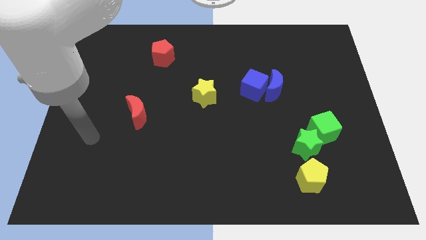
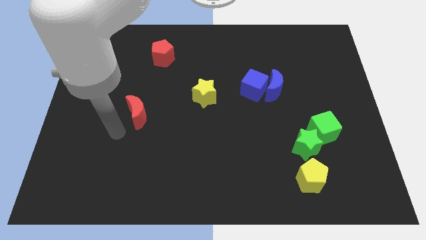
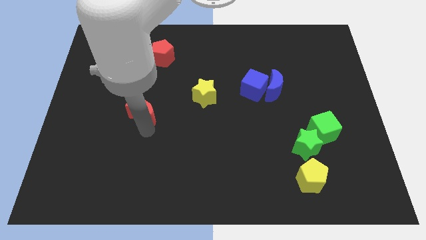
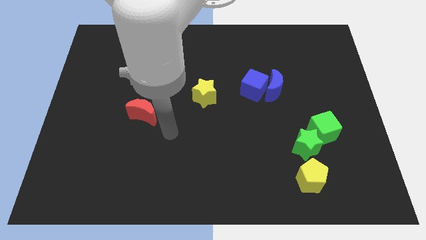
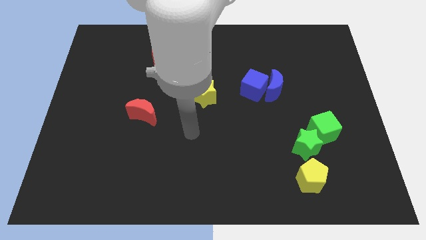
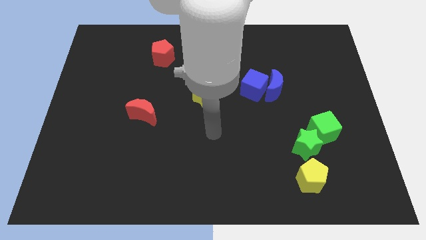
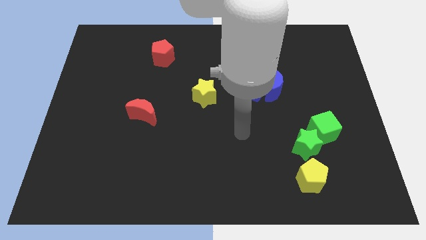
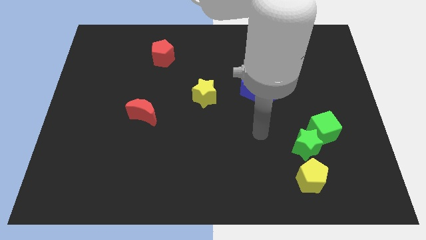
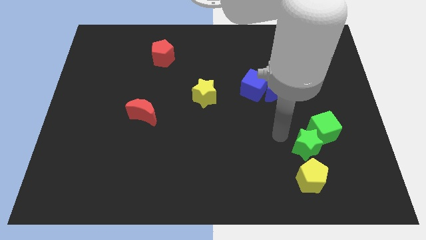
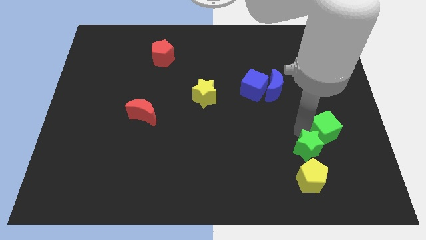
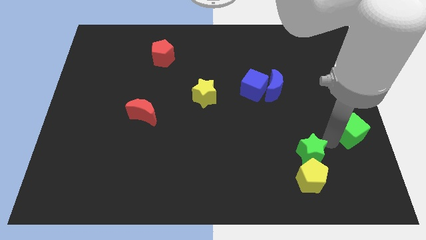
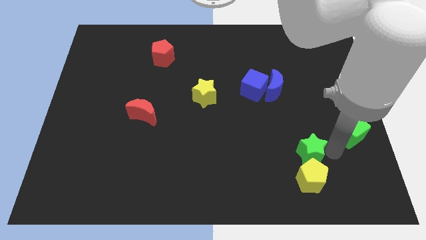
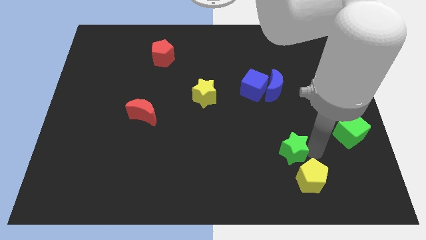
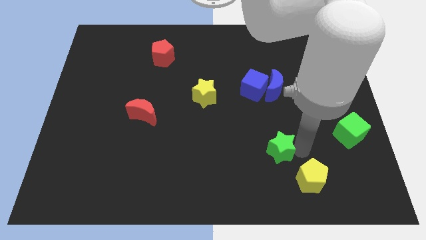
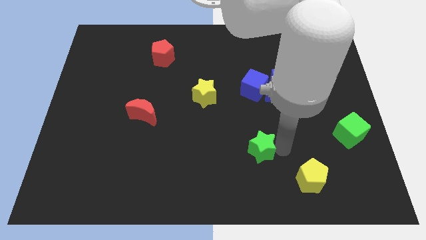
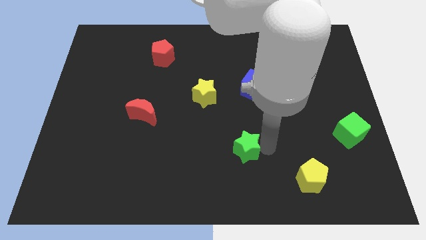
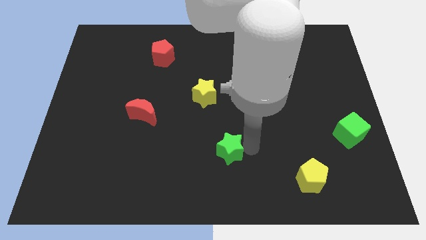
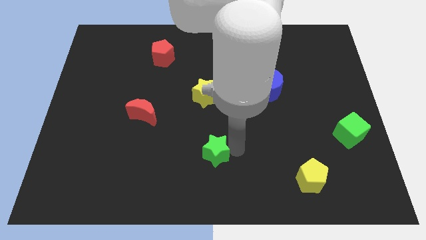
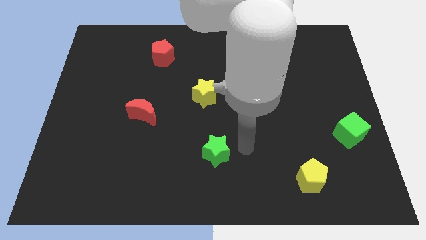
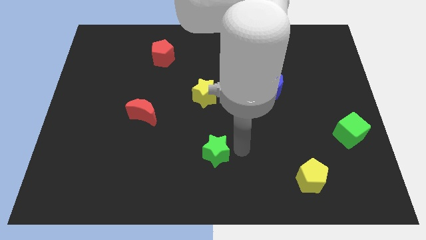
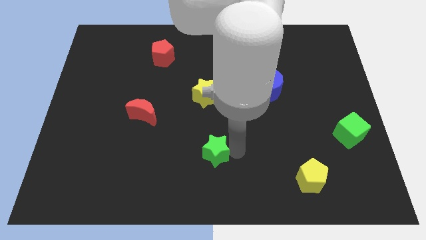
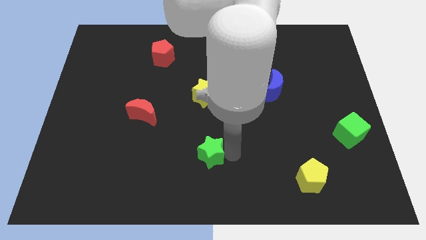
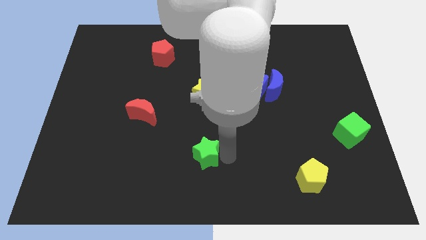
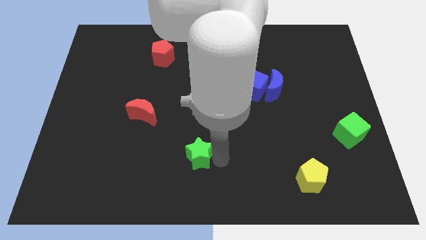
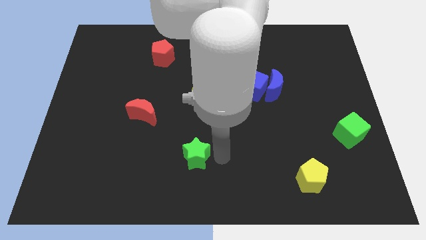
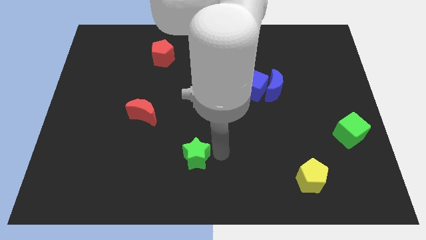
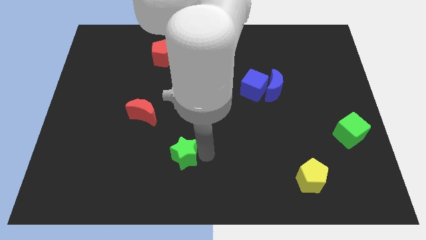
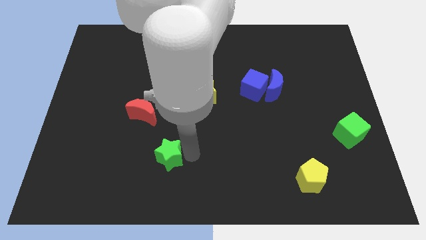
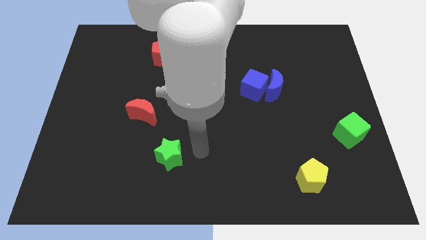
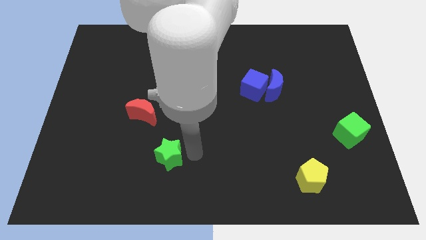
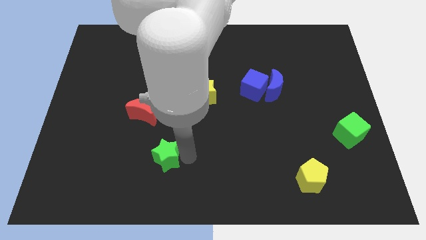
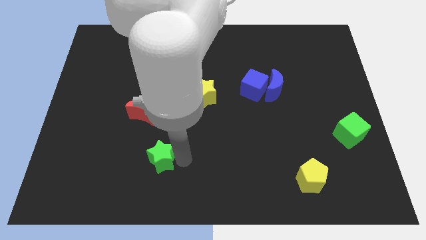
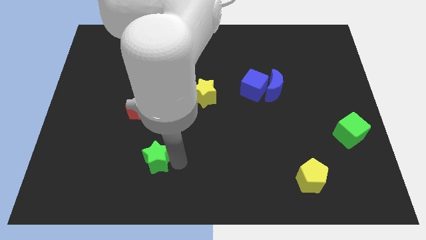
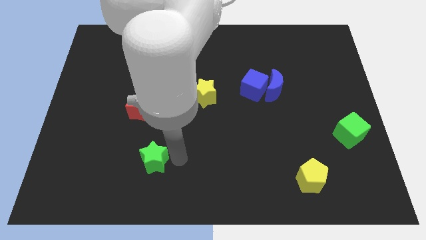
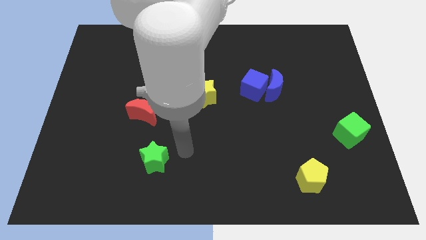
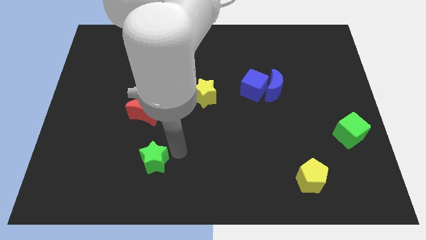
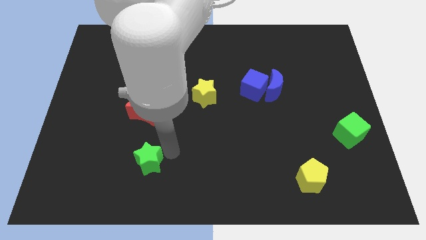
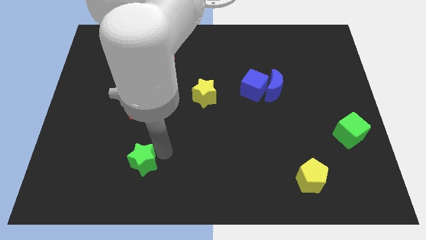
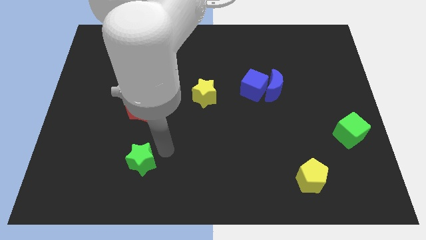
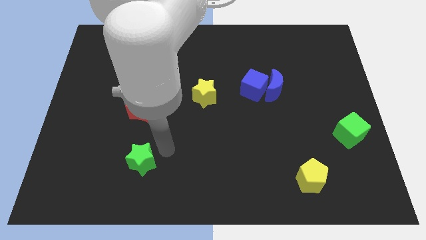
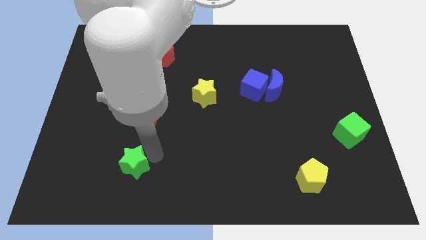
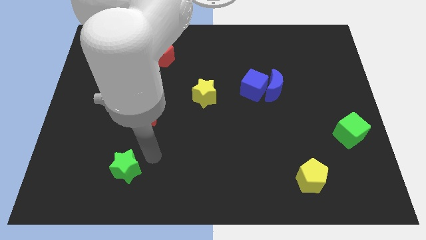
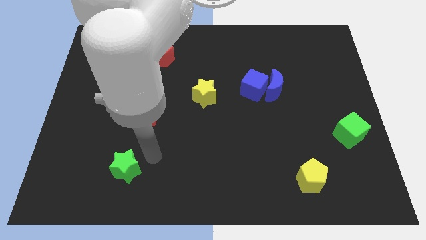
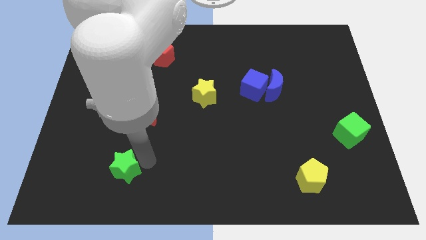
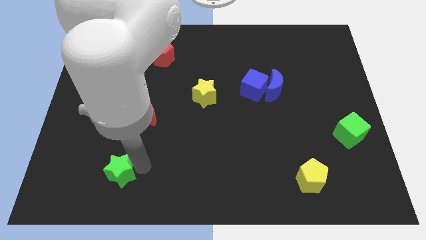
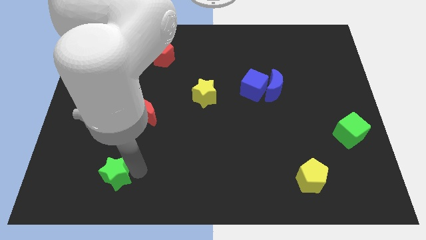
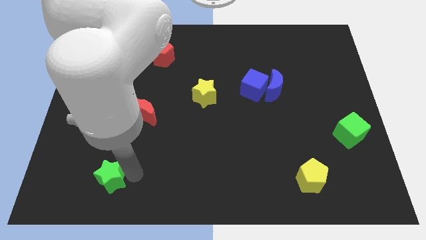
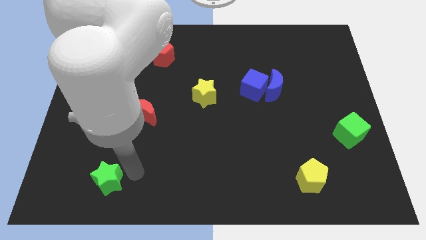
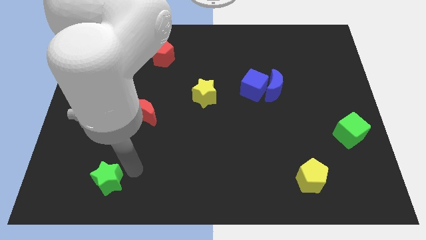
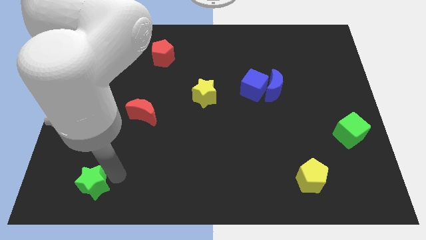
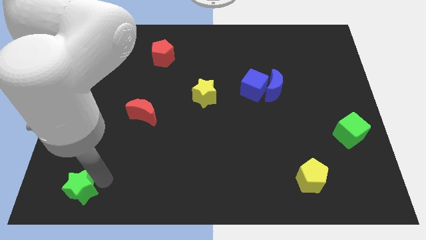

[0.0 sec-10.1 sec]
put the green star to the bottom left

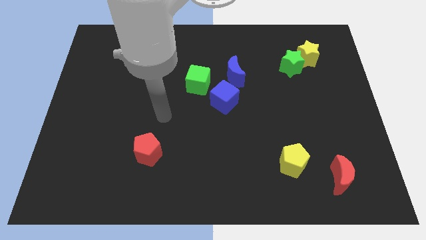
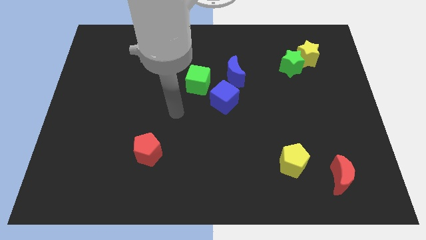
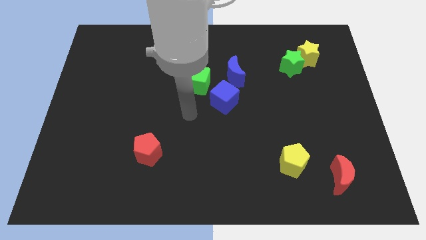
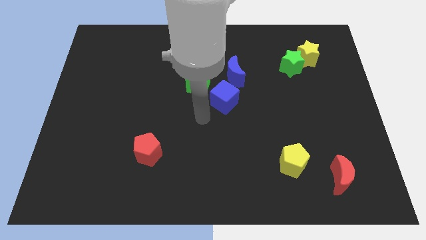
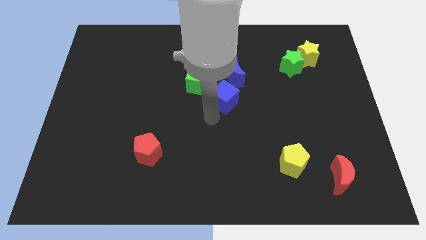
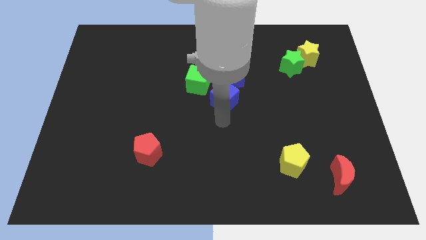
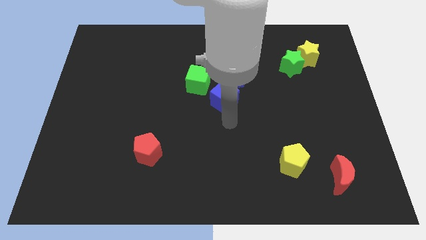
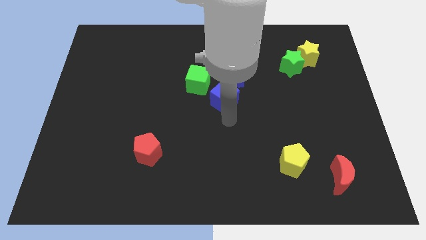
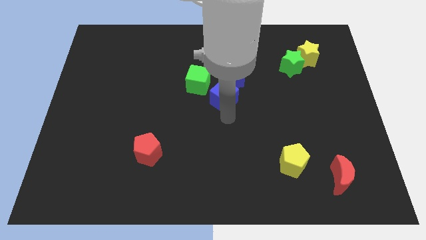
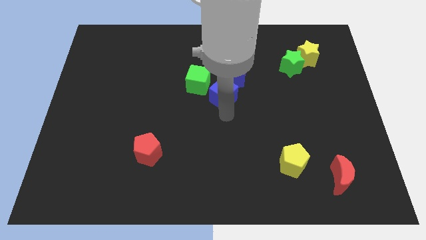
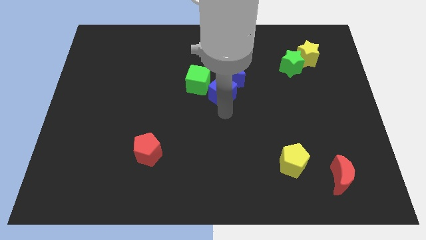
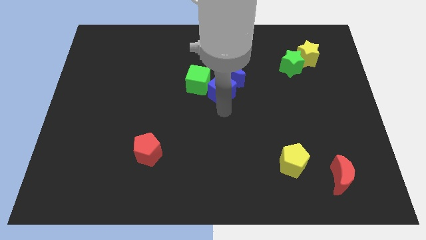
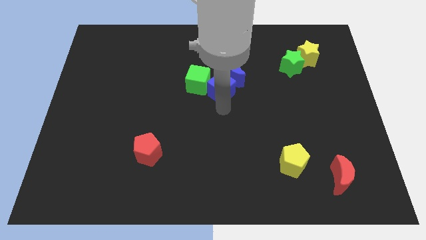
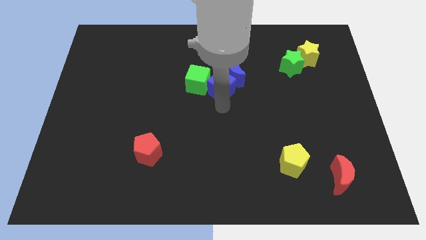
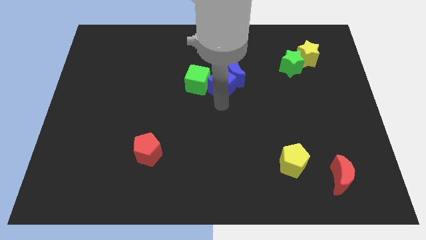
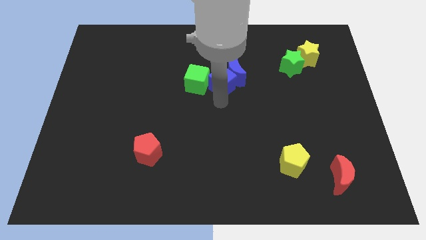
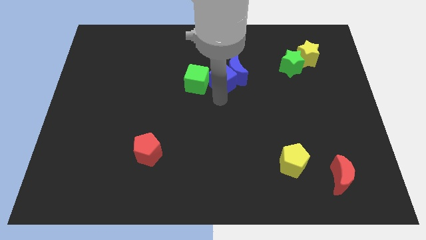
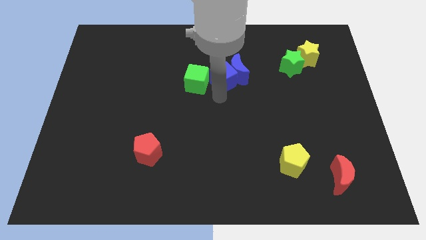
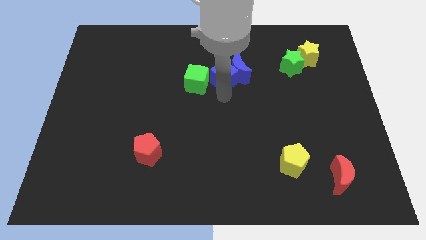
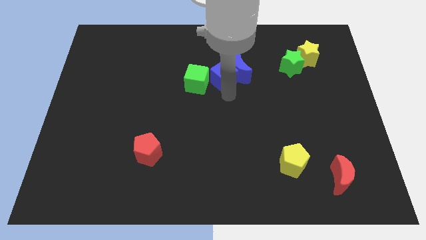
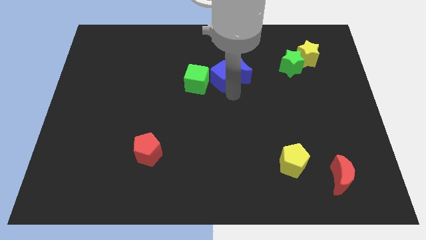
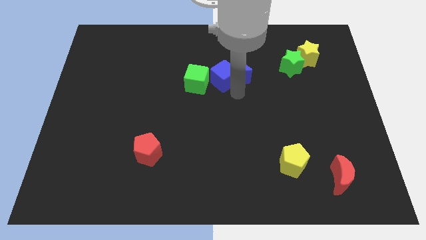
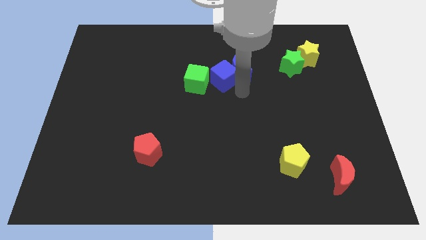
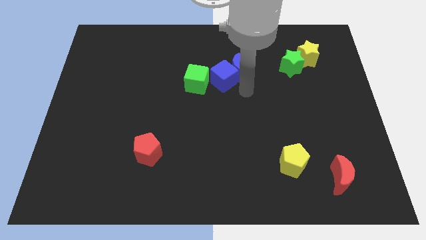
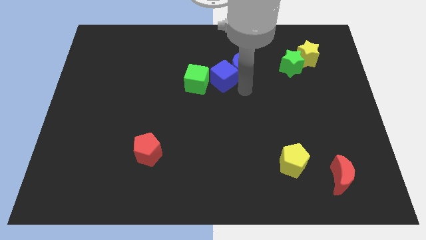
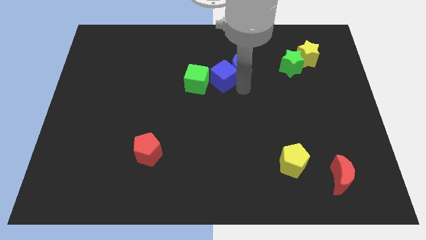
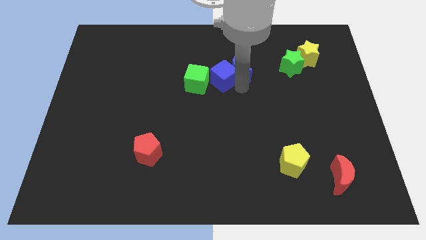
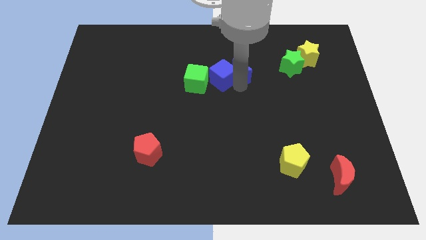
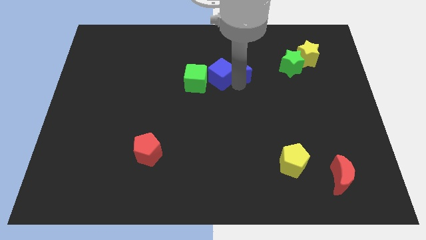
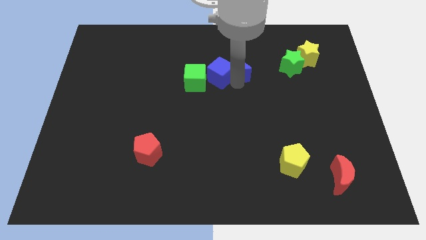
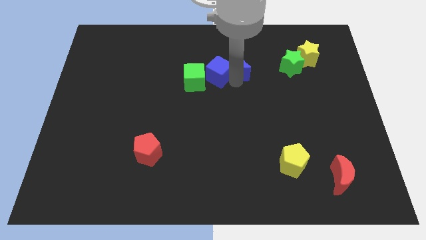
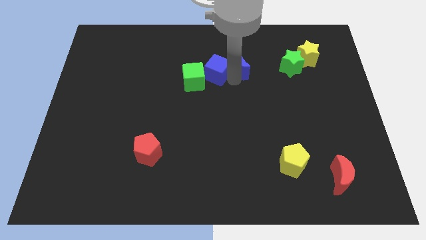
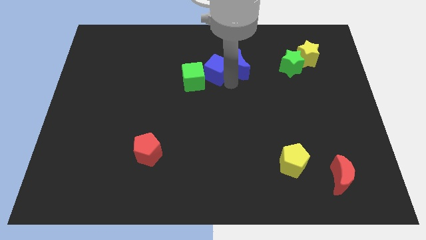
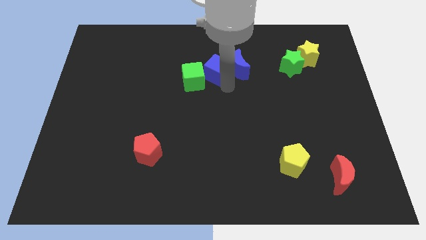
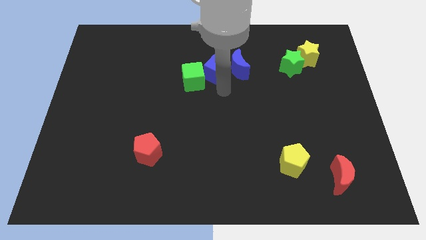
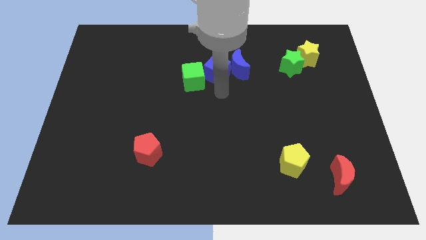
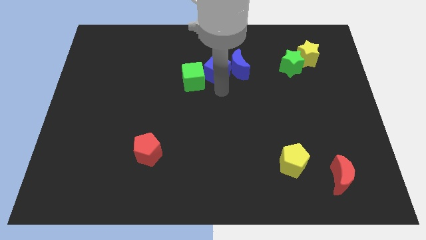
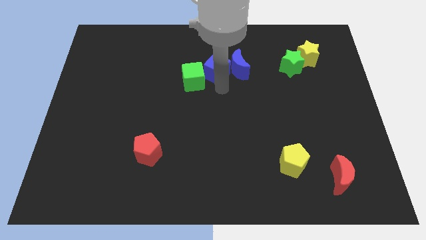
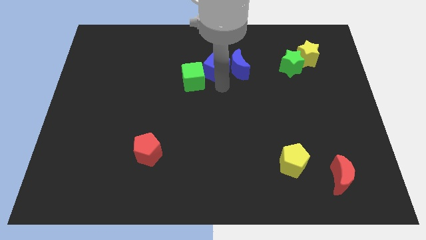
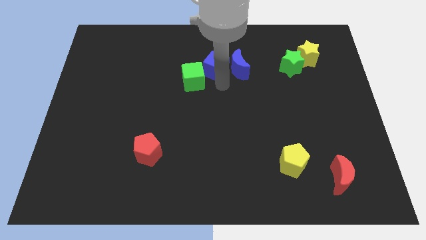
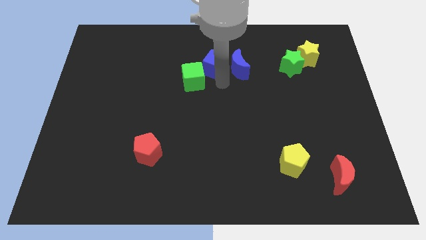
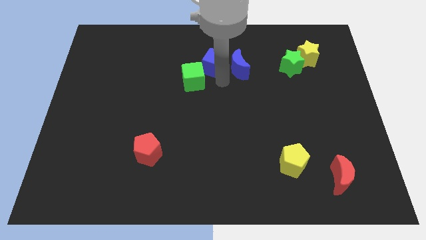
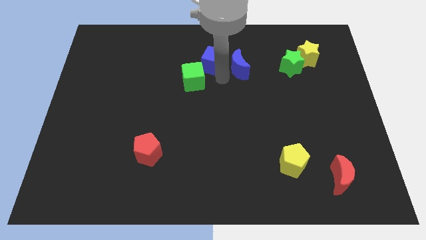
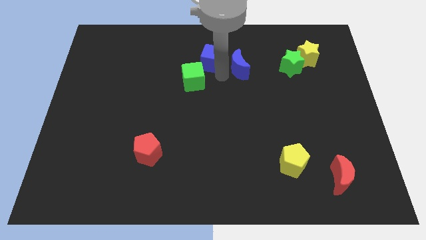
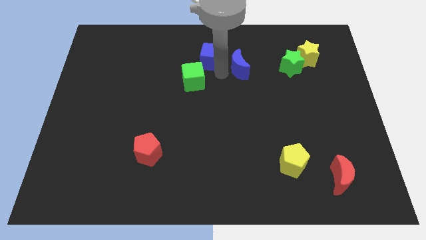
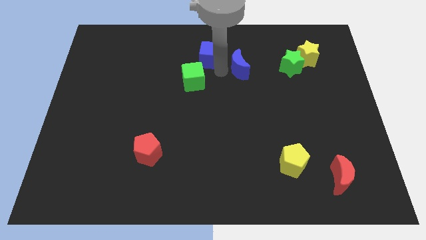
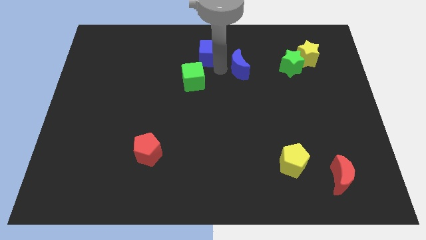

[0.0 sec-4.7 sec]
put the blue cube to the top side
